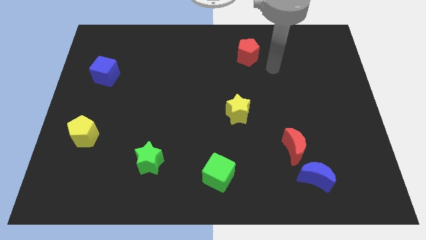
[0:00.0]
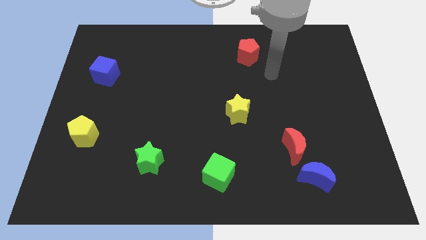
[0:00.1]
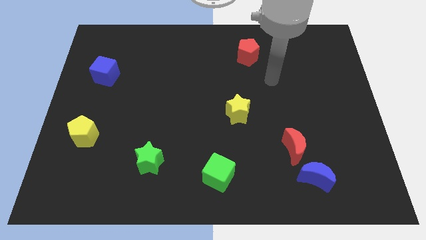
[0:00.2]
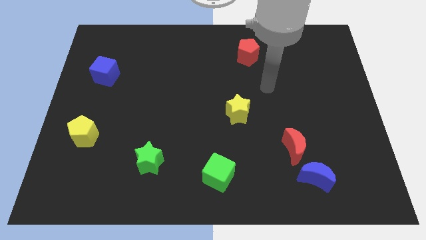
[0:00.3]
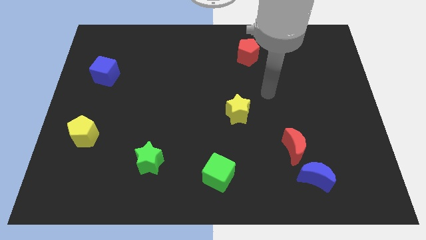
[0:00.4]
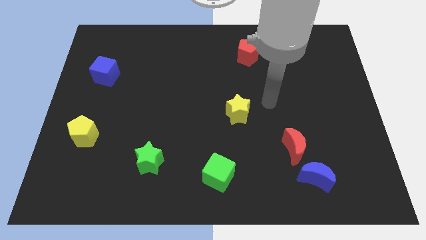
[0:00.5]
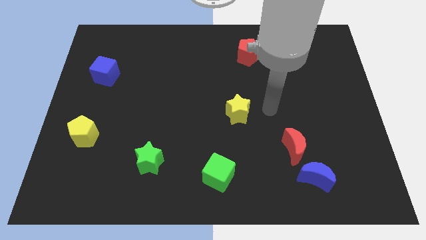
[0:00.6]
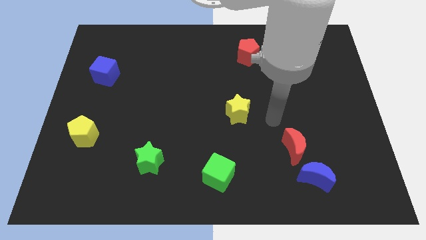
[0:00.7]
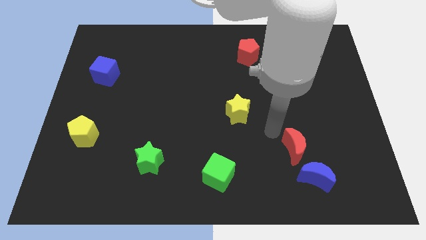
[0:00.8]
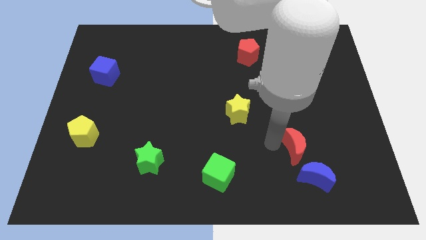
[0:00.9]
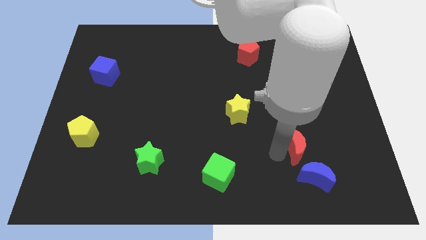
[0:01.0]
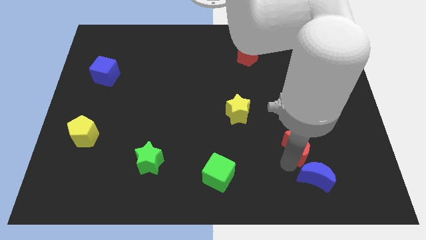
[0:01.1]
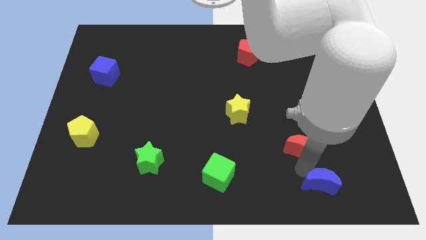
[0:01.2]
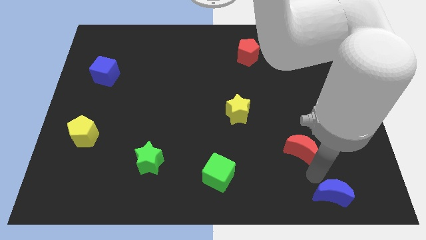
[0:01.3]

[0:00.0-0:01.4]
move the red moon away from the blue moon

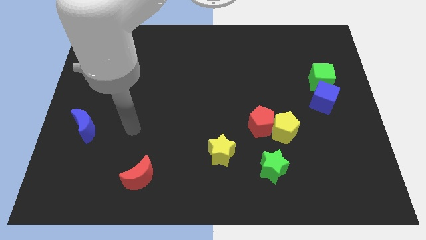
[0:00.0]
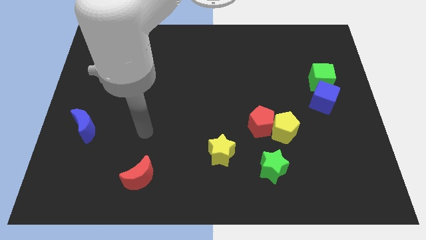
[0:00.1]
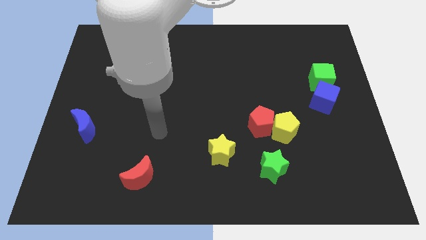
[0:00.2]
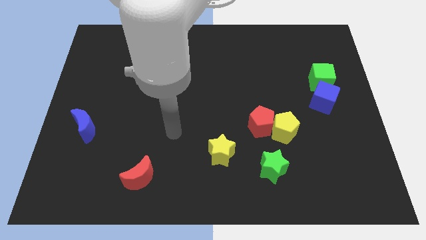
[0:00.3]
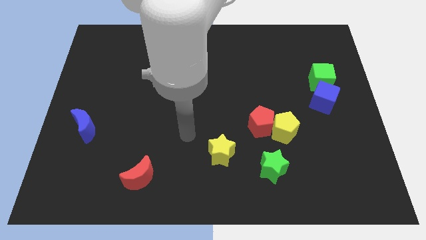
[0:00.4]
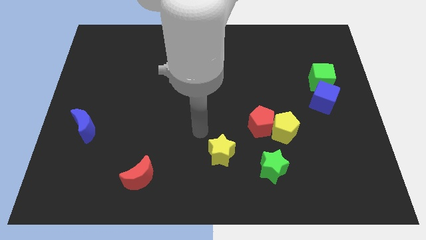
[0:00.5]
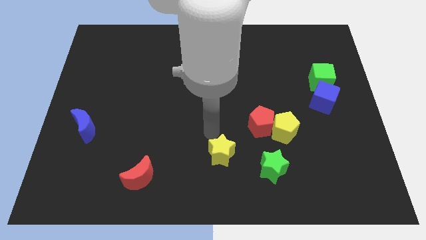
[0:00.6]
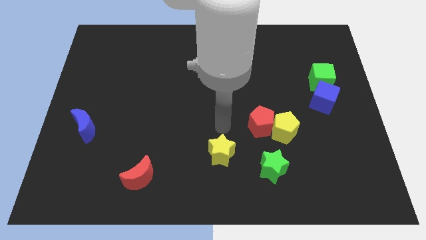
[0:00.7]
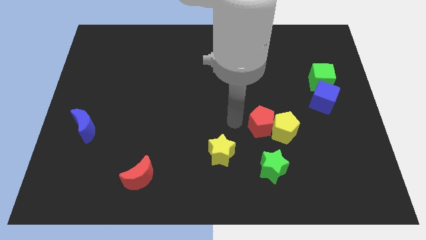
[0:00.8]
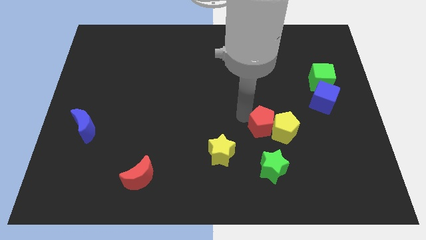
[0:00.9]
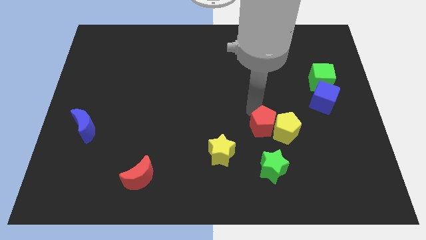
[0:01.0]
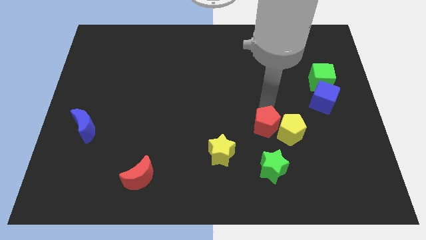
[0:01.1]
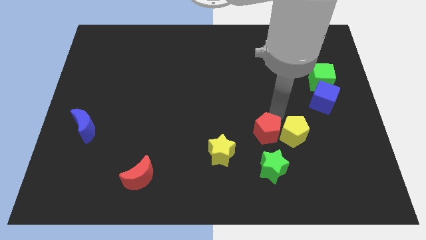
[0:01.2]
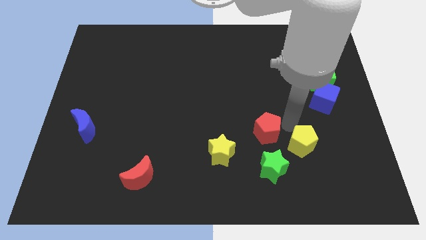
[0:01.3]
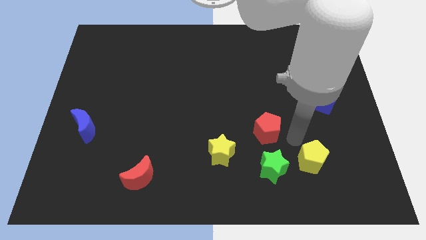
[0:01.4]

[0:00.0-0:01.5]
pull the red pentagon apart from the yellow pentagon

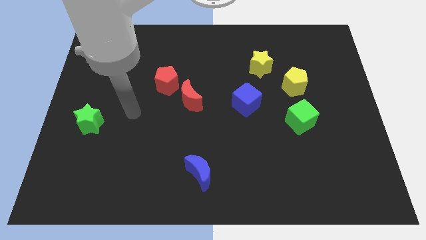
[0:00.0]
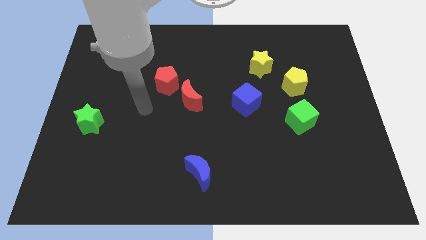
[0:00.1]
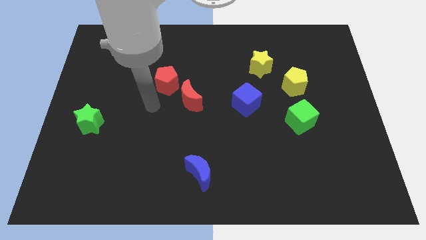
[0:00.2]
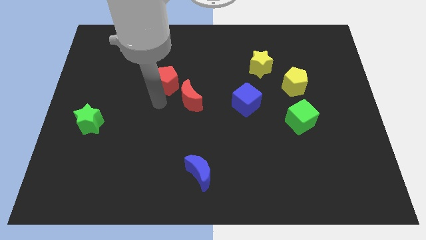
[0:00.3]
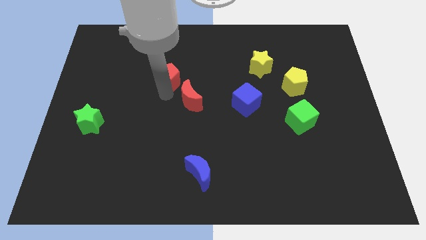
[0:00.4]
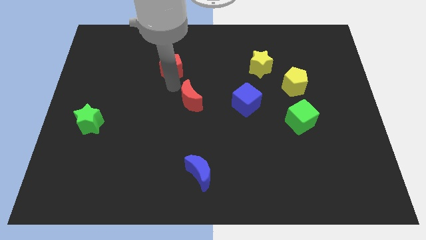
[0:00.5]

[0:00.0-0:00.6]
pull the red moon apart from the red pentagon

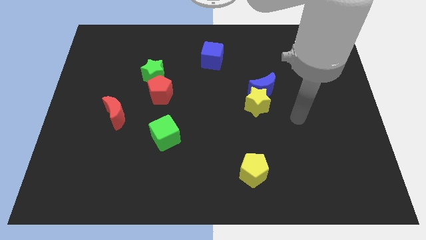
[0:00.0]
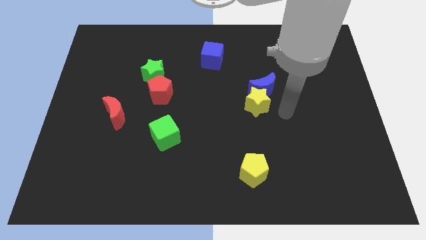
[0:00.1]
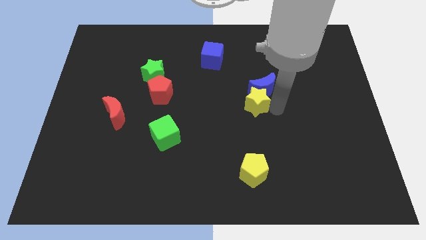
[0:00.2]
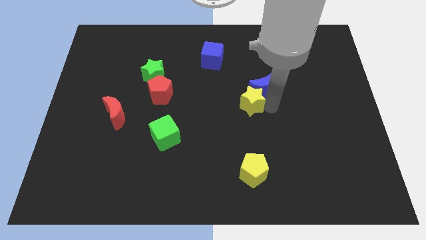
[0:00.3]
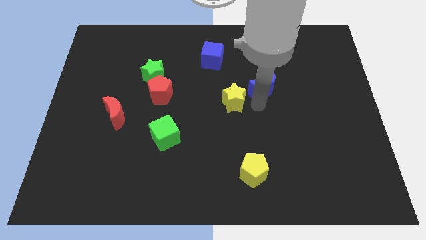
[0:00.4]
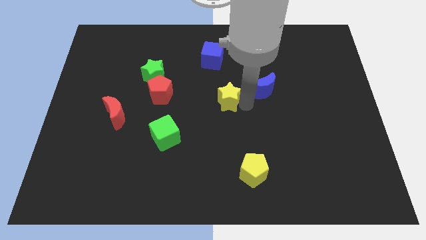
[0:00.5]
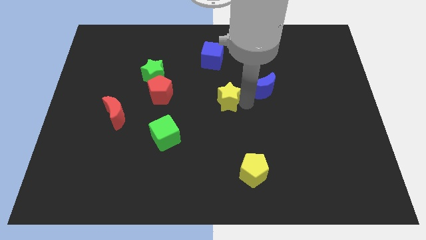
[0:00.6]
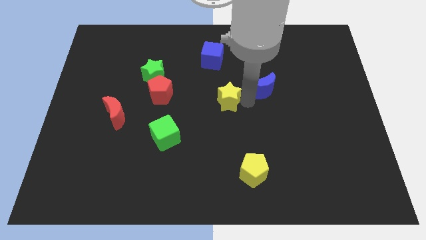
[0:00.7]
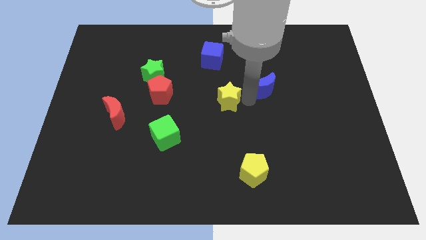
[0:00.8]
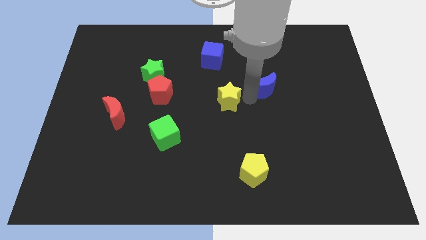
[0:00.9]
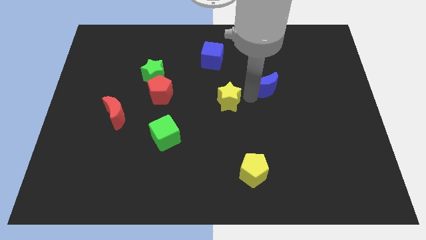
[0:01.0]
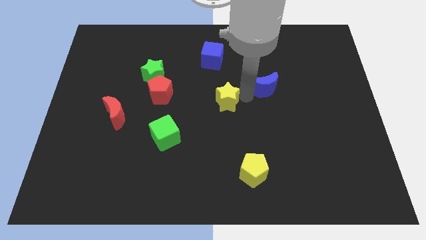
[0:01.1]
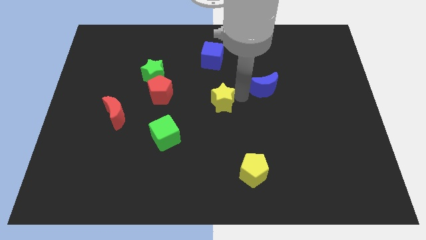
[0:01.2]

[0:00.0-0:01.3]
pull the blue moon apart from the yellow star

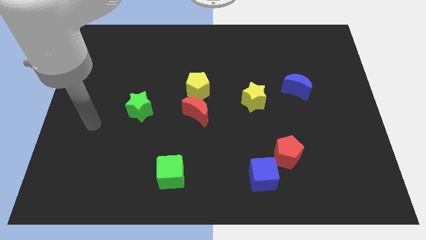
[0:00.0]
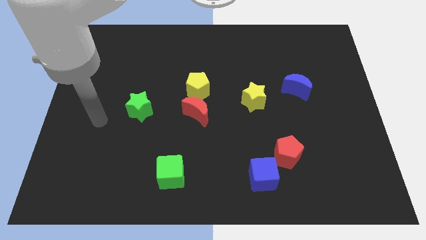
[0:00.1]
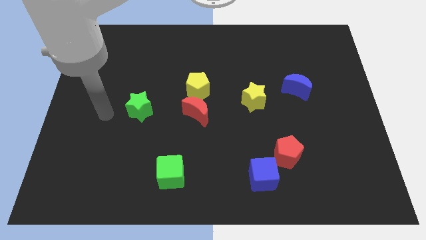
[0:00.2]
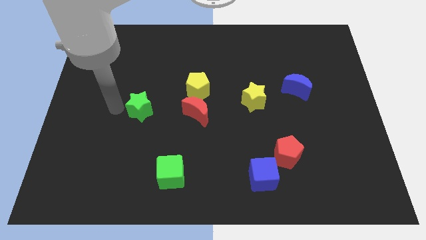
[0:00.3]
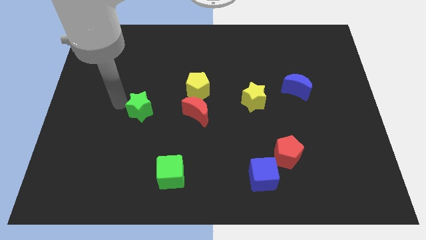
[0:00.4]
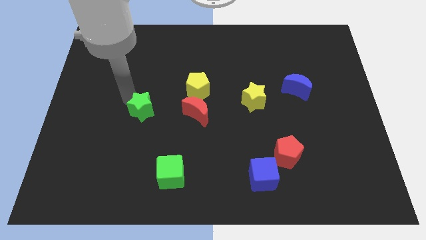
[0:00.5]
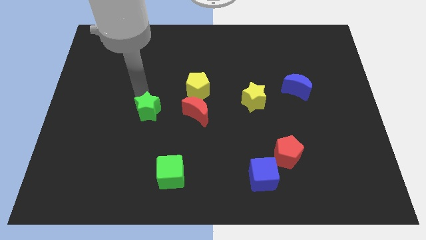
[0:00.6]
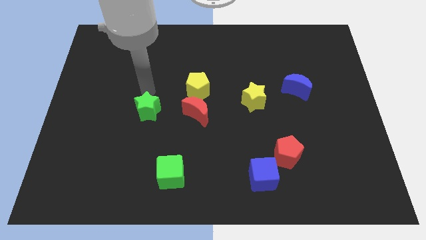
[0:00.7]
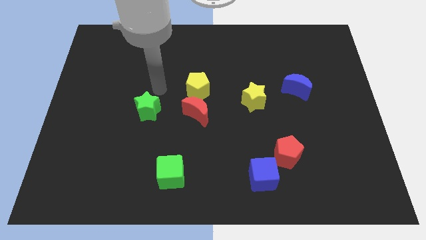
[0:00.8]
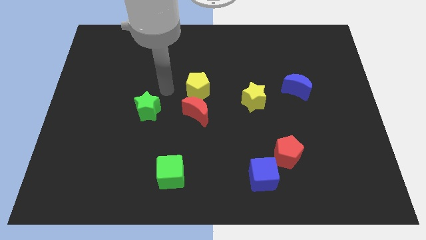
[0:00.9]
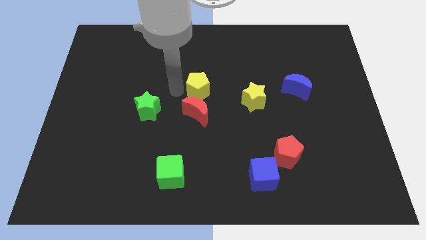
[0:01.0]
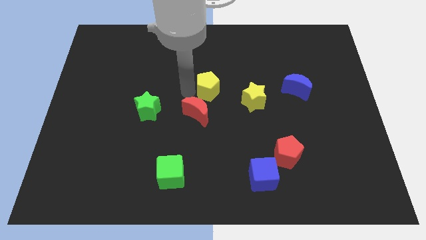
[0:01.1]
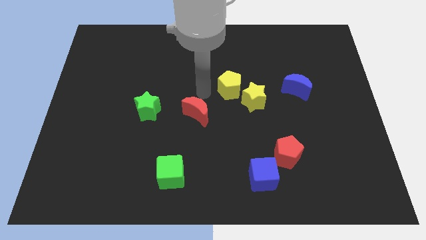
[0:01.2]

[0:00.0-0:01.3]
pull the red moon apart from the yellow pentagon

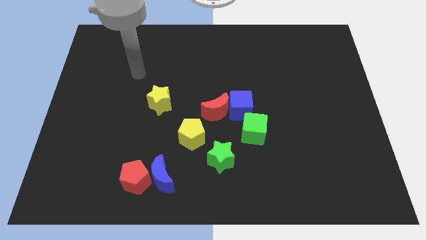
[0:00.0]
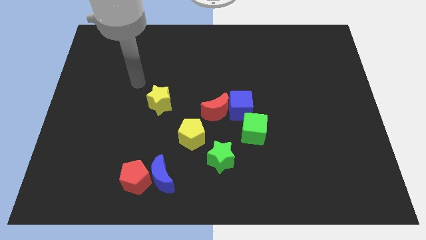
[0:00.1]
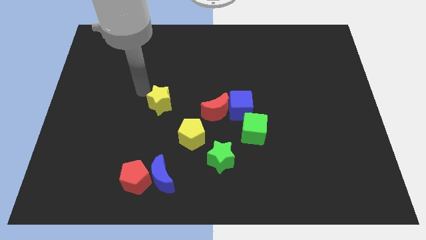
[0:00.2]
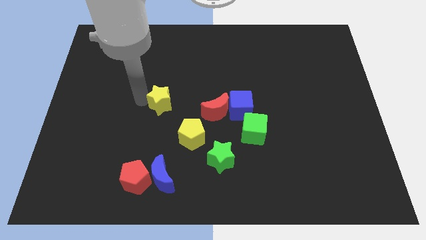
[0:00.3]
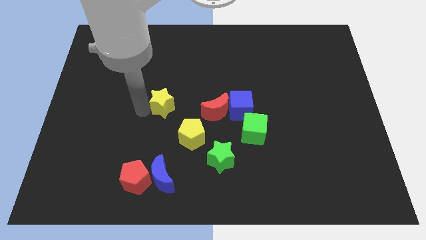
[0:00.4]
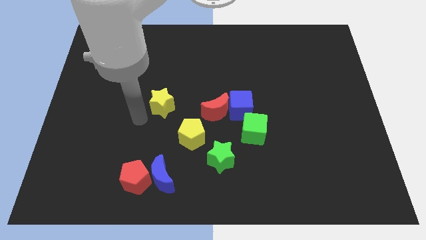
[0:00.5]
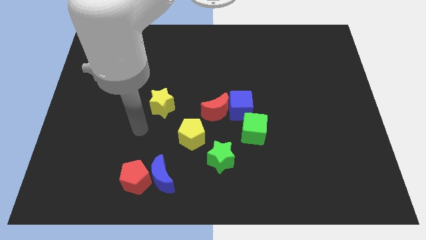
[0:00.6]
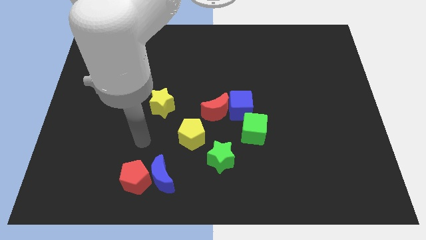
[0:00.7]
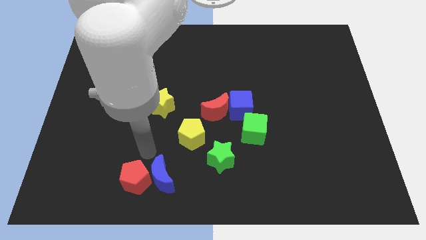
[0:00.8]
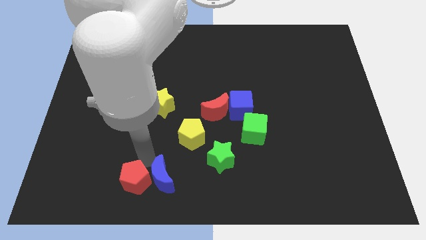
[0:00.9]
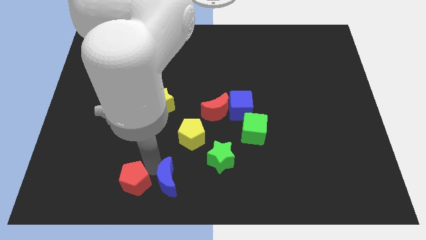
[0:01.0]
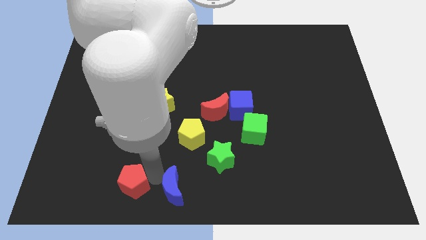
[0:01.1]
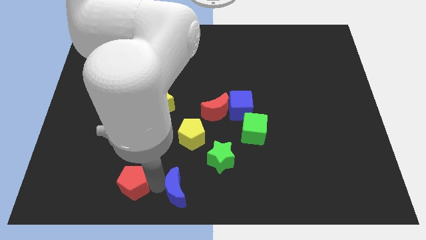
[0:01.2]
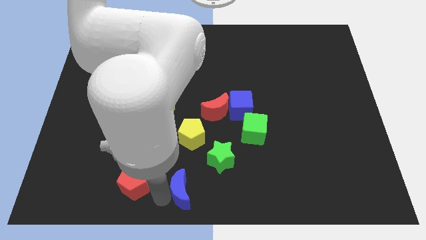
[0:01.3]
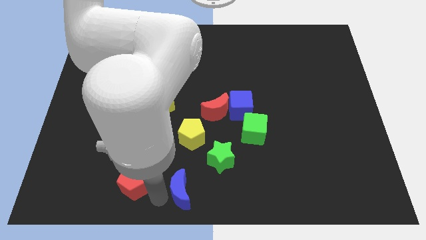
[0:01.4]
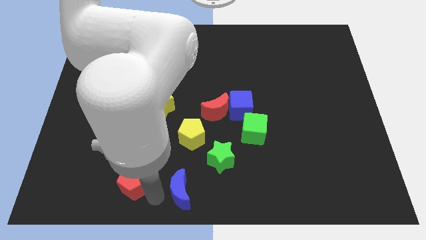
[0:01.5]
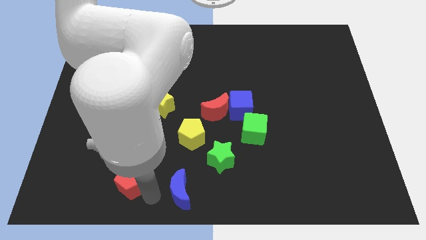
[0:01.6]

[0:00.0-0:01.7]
move the red pentagon away from the blue moon

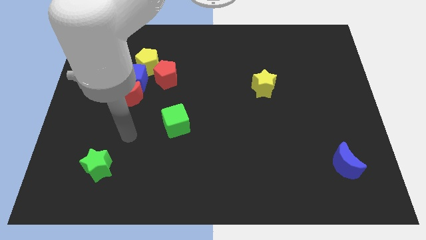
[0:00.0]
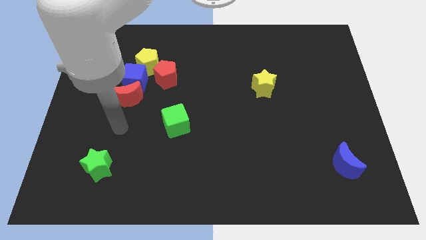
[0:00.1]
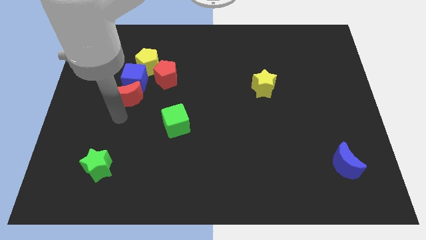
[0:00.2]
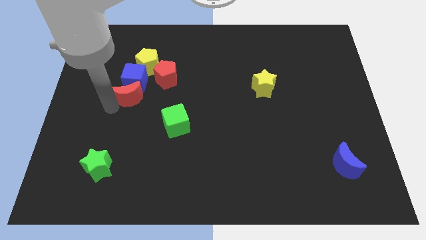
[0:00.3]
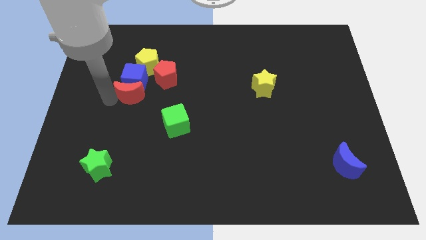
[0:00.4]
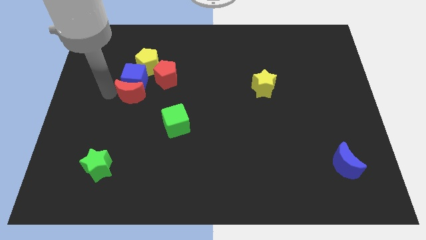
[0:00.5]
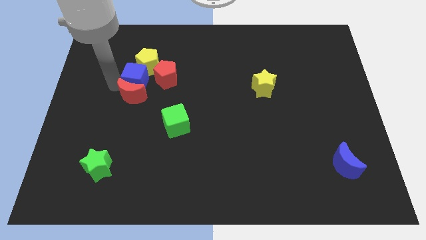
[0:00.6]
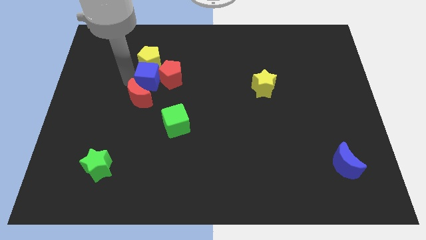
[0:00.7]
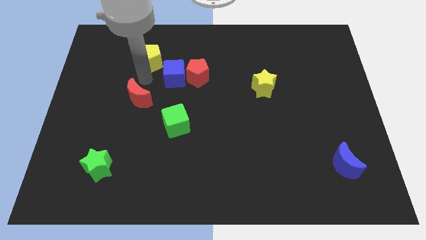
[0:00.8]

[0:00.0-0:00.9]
separate the red moon from the blue cube

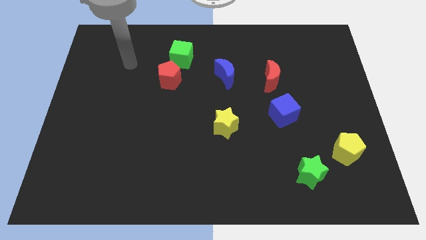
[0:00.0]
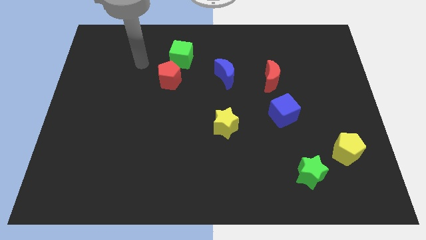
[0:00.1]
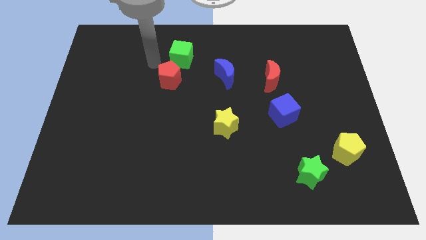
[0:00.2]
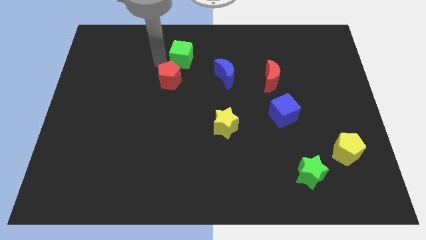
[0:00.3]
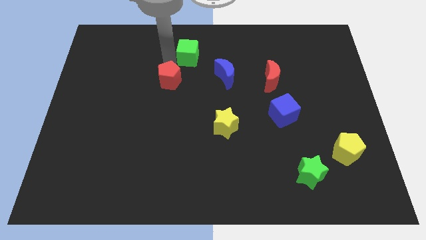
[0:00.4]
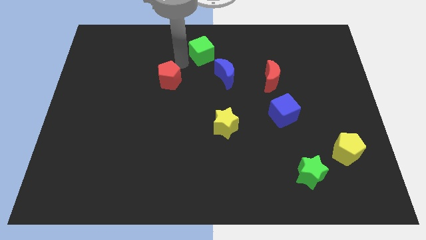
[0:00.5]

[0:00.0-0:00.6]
separate the red pentagon from the green cube
